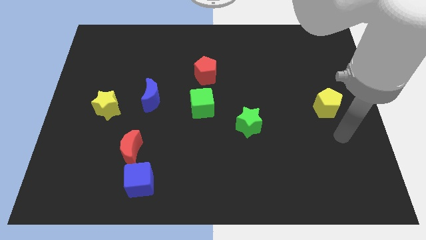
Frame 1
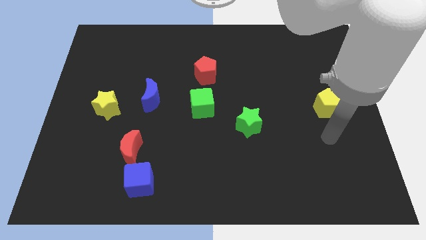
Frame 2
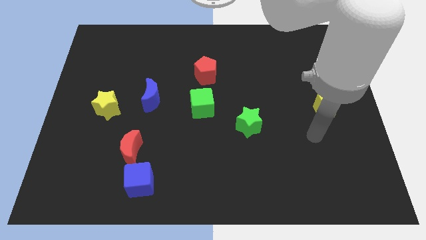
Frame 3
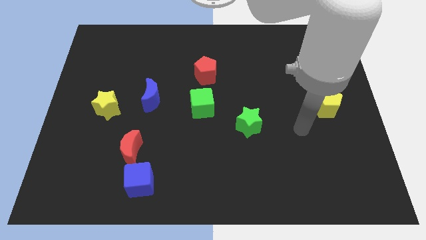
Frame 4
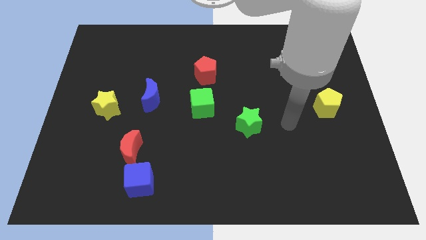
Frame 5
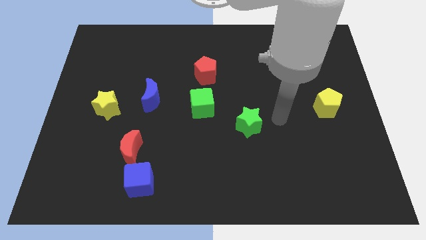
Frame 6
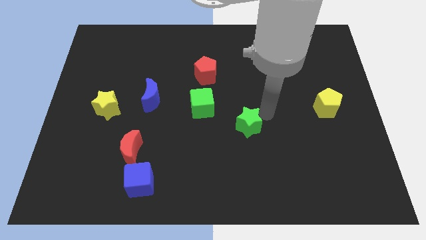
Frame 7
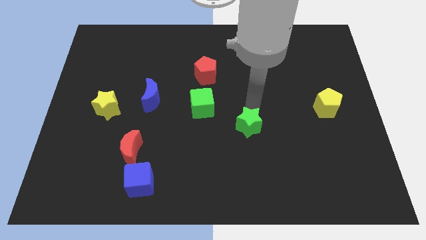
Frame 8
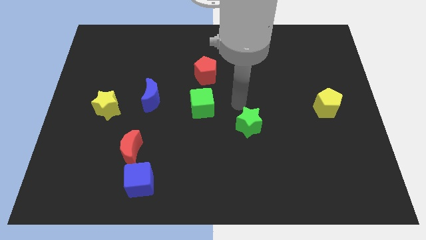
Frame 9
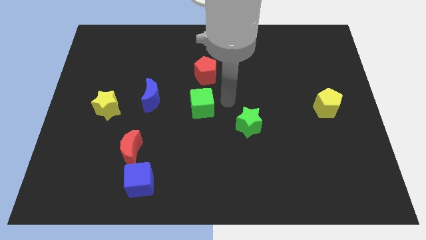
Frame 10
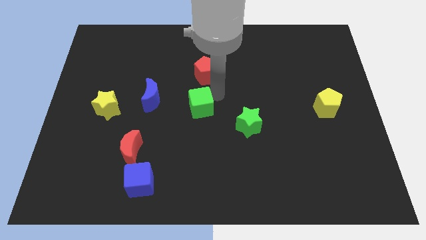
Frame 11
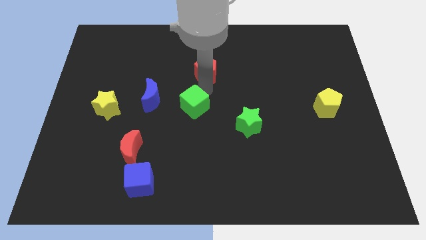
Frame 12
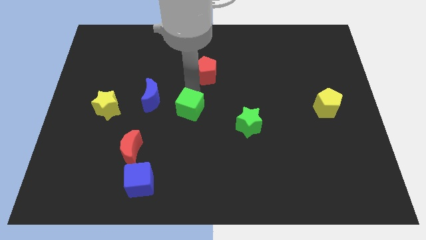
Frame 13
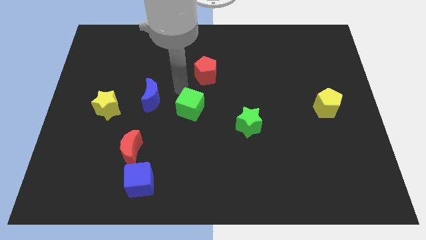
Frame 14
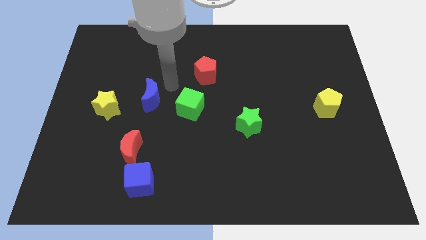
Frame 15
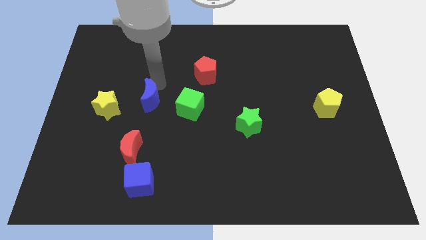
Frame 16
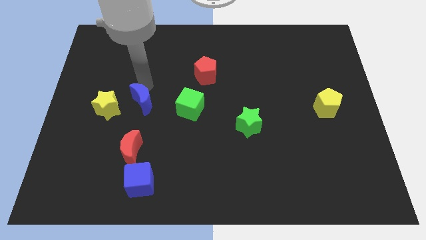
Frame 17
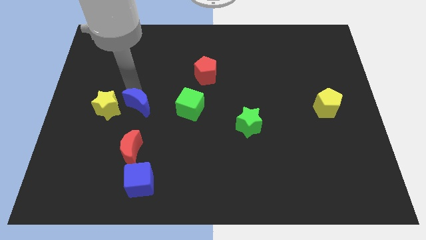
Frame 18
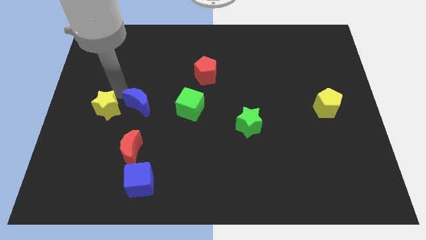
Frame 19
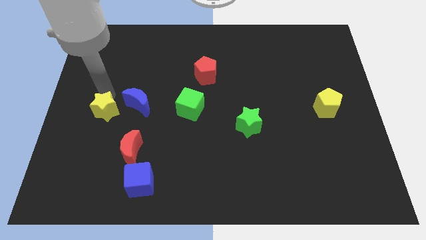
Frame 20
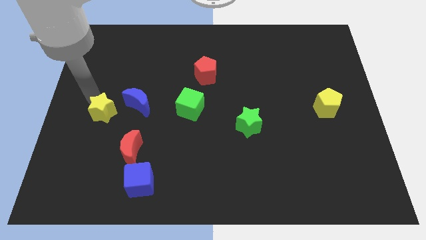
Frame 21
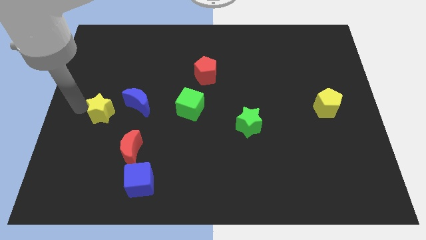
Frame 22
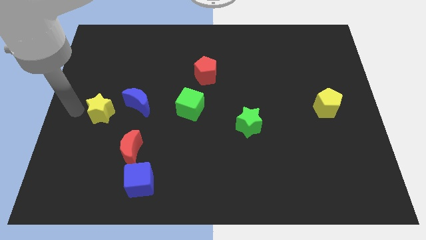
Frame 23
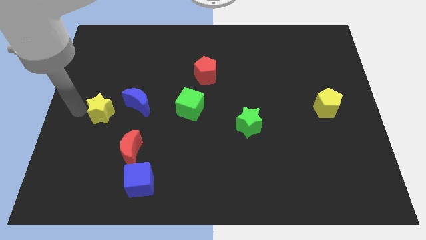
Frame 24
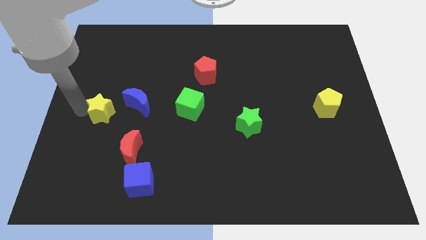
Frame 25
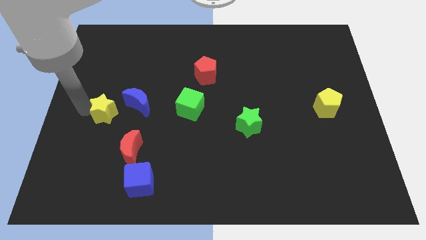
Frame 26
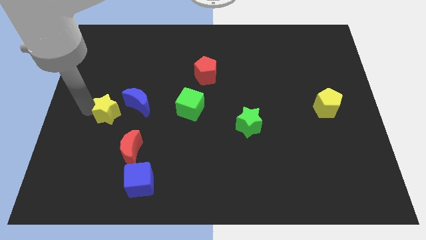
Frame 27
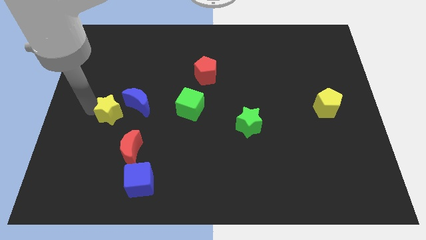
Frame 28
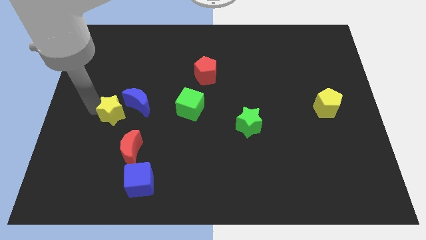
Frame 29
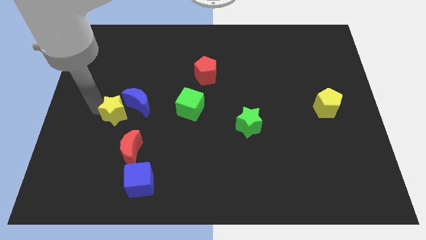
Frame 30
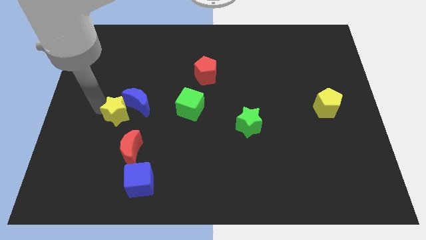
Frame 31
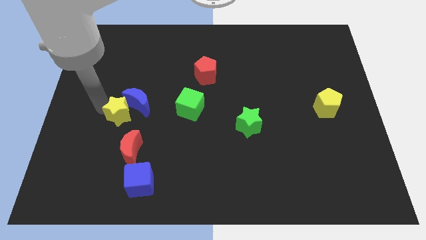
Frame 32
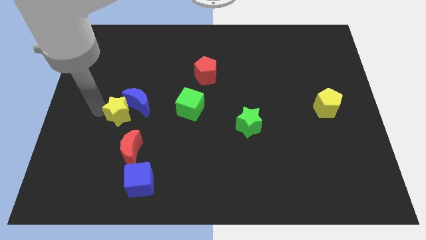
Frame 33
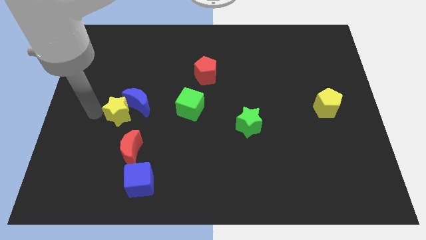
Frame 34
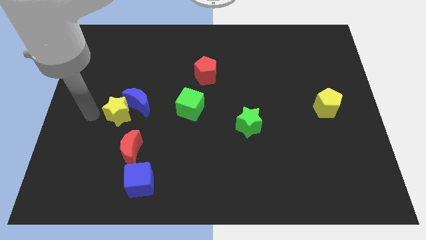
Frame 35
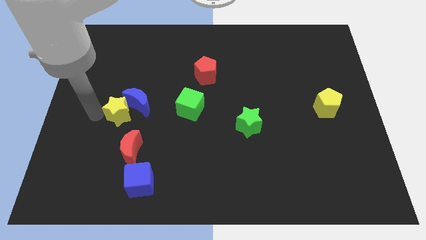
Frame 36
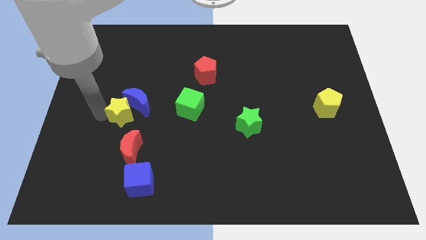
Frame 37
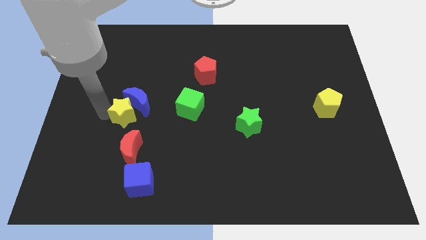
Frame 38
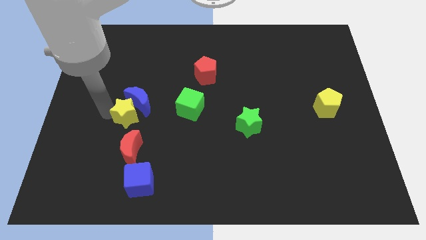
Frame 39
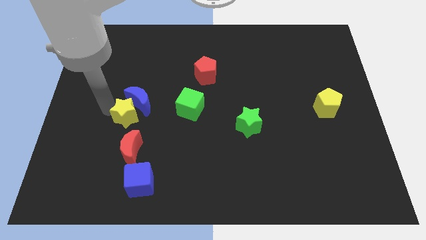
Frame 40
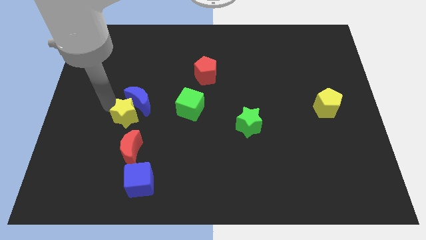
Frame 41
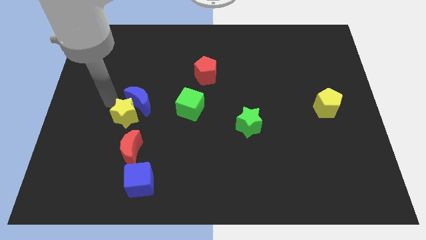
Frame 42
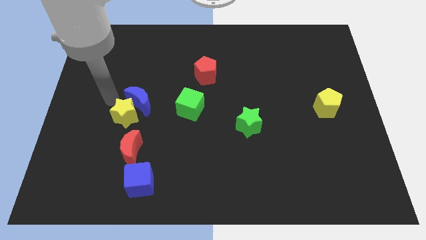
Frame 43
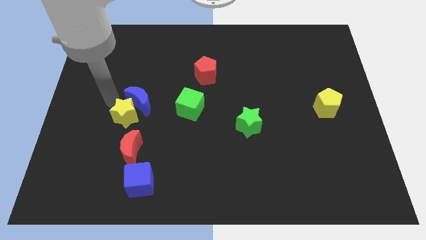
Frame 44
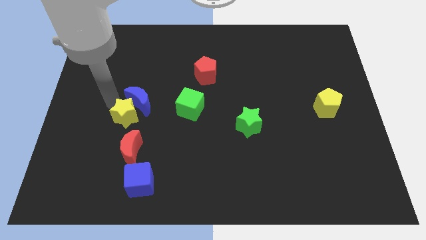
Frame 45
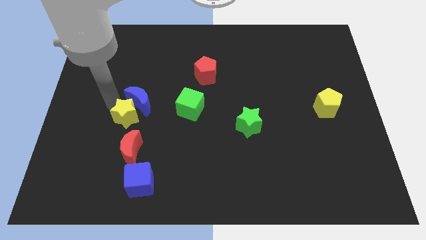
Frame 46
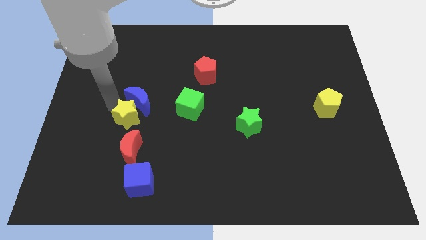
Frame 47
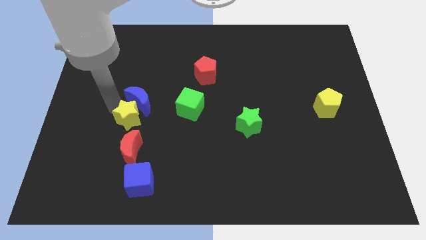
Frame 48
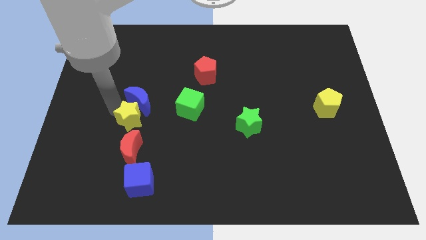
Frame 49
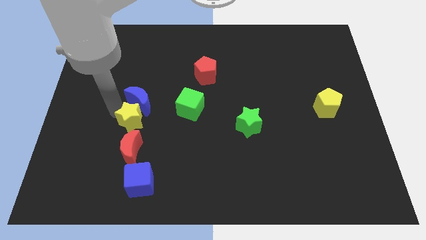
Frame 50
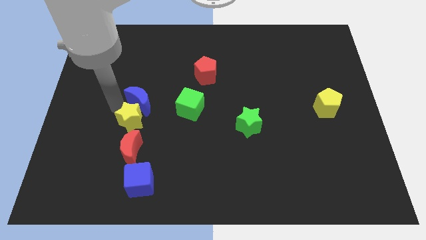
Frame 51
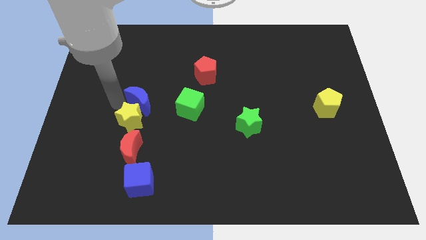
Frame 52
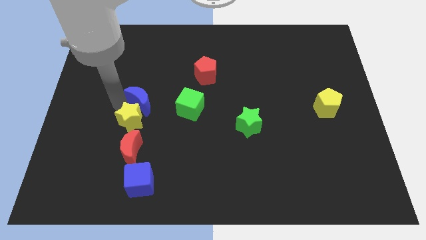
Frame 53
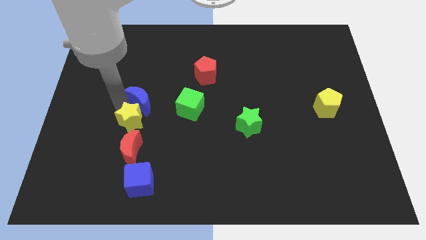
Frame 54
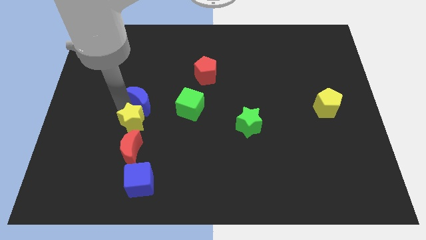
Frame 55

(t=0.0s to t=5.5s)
slide the yellow star down and right a little

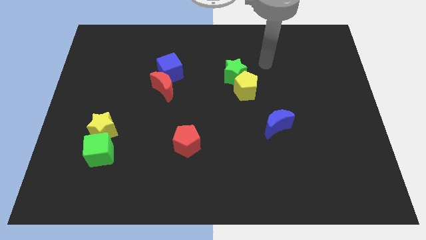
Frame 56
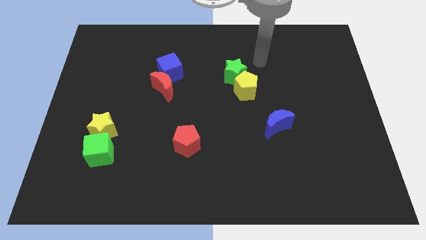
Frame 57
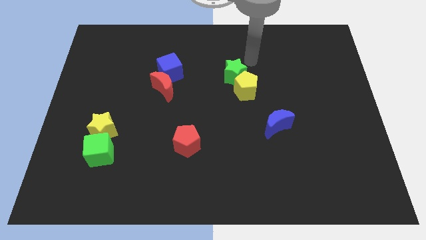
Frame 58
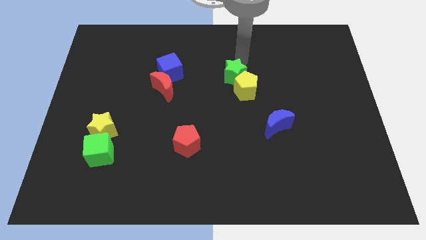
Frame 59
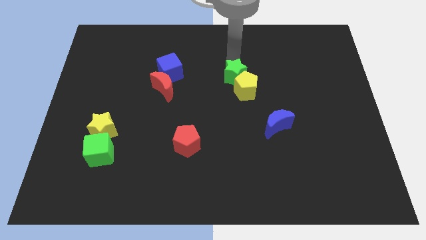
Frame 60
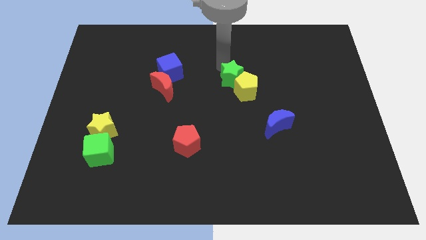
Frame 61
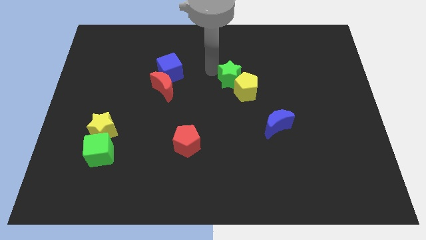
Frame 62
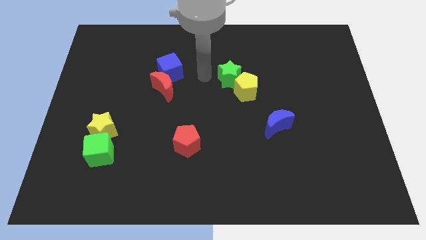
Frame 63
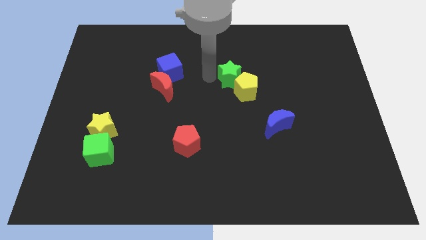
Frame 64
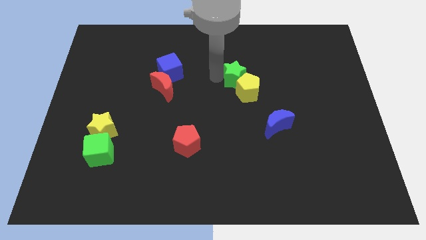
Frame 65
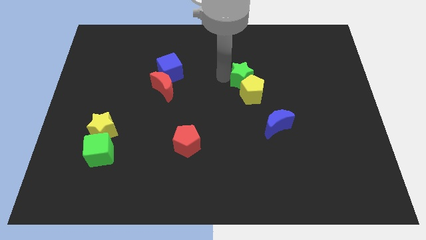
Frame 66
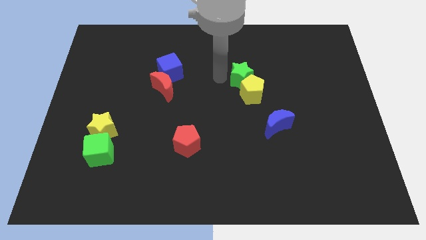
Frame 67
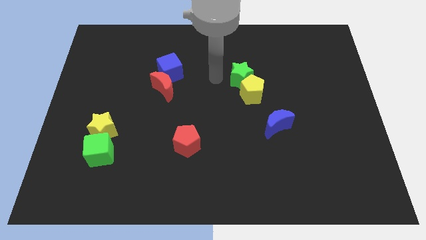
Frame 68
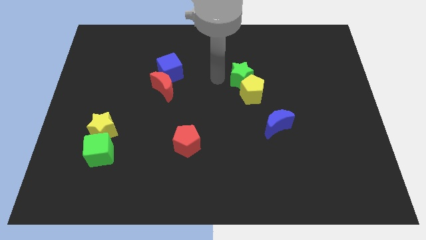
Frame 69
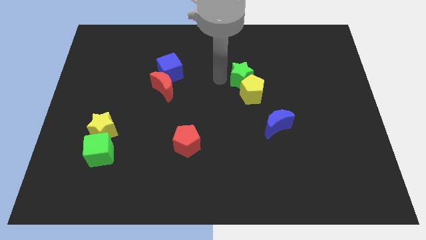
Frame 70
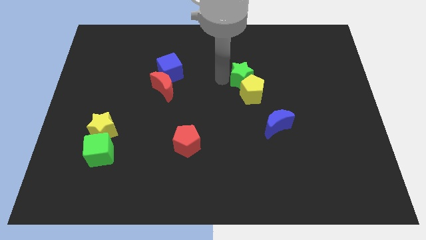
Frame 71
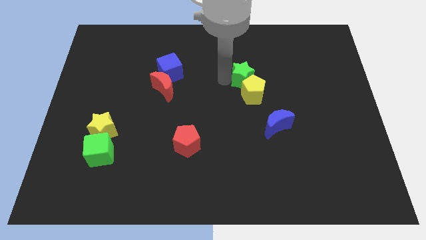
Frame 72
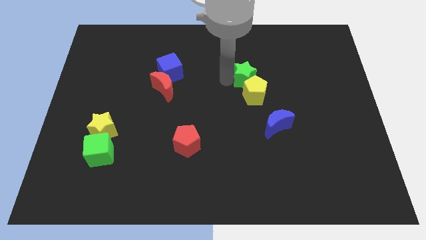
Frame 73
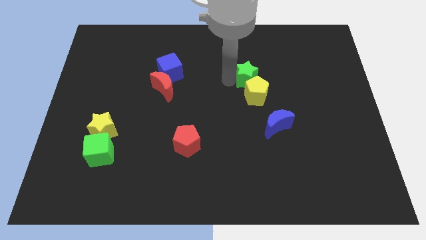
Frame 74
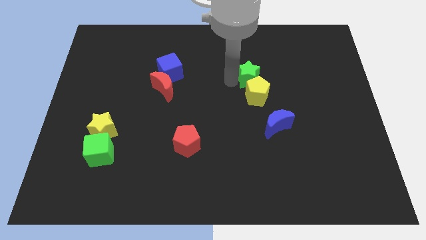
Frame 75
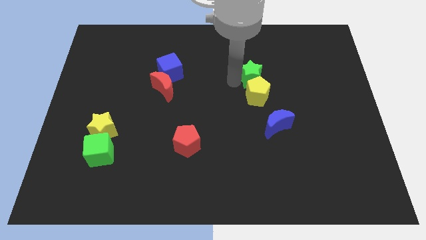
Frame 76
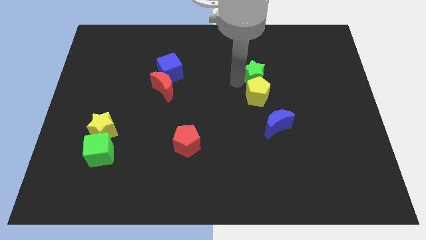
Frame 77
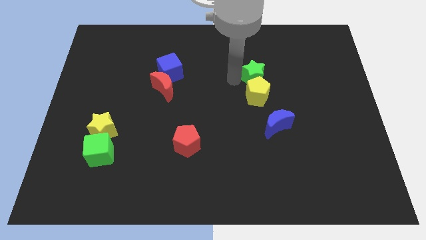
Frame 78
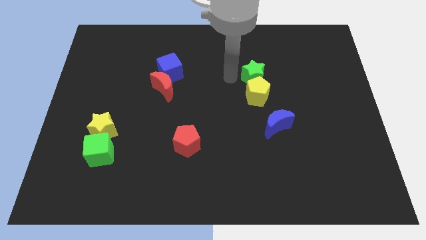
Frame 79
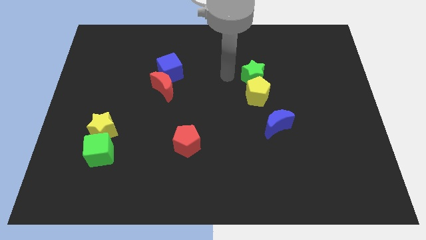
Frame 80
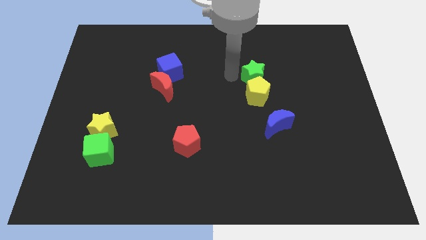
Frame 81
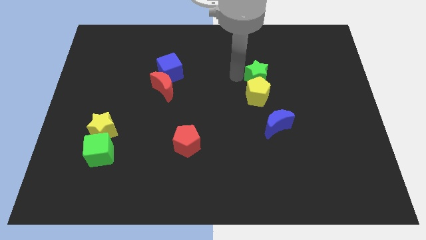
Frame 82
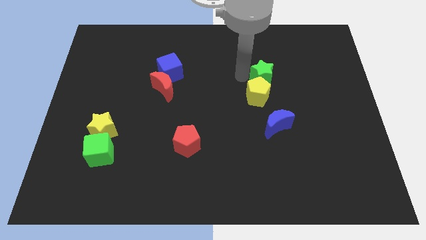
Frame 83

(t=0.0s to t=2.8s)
slide the green star to the right a little

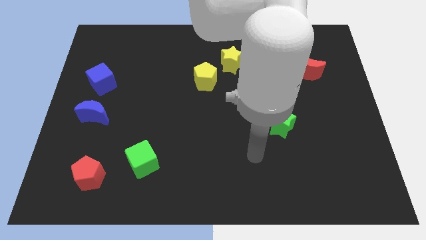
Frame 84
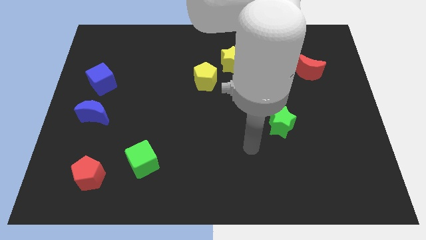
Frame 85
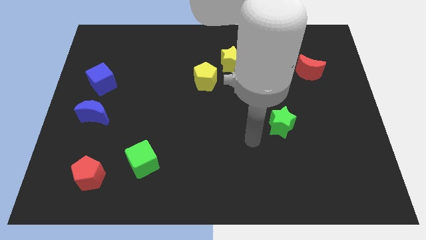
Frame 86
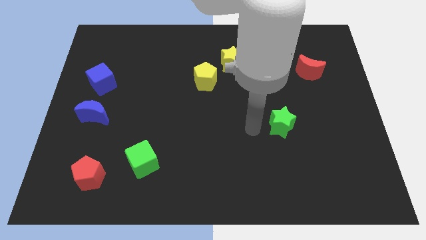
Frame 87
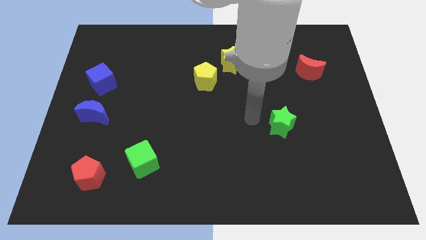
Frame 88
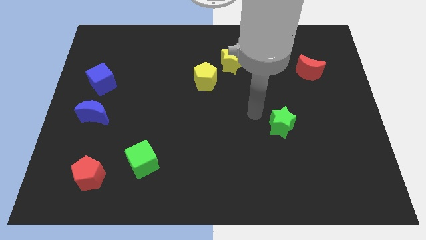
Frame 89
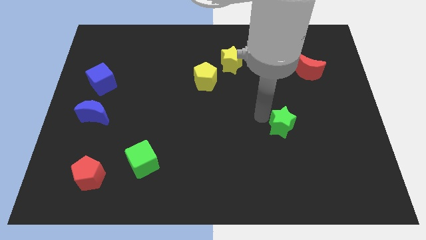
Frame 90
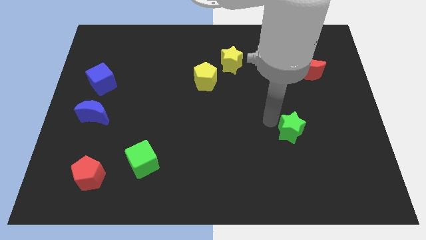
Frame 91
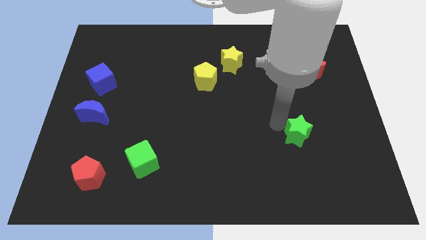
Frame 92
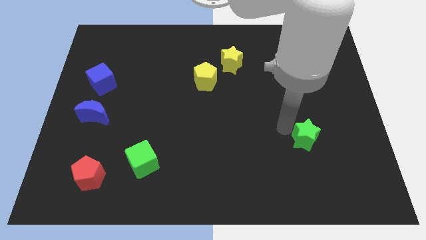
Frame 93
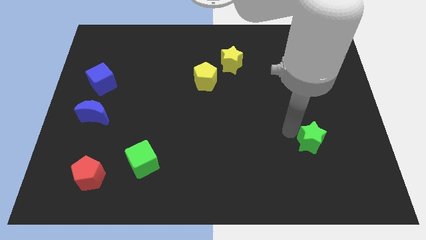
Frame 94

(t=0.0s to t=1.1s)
slightly move the green star downwards and right
